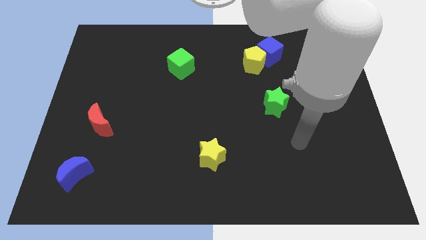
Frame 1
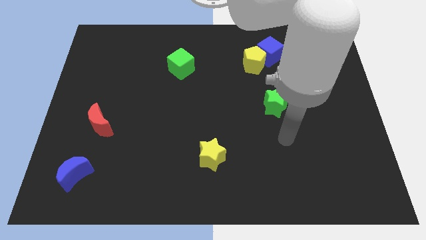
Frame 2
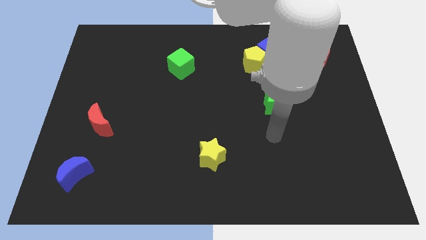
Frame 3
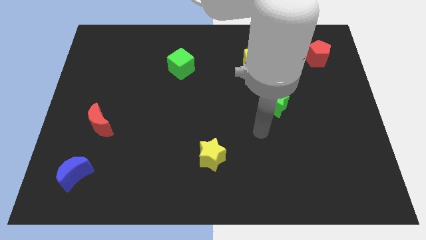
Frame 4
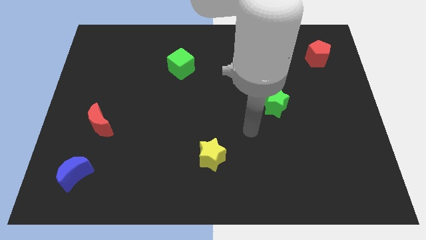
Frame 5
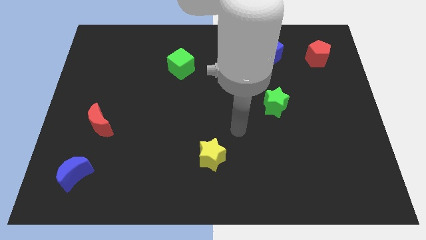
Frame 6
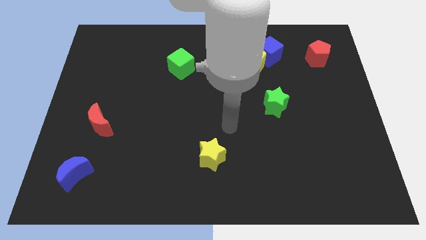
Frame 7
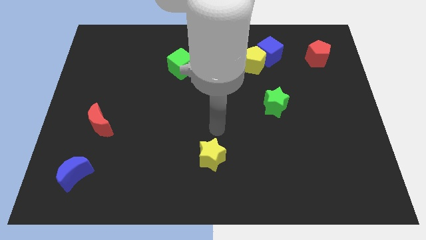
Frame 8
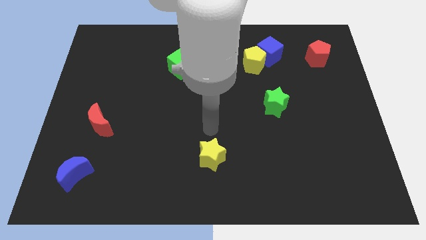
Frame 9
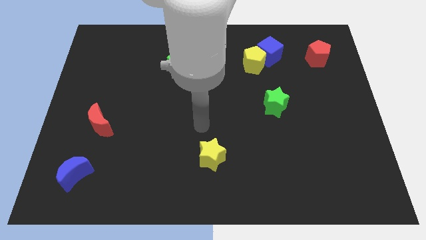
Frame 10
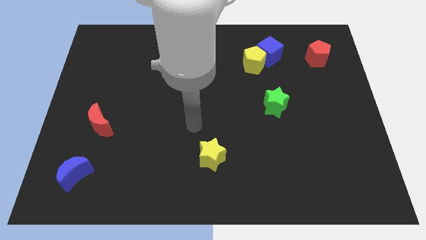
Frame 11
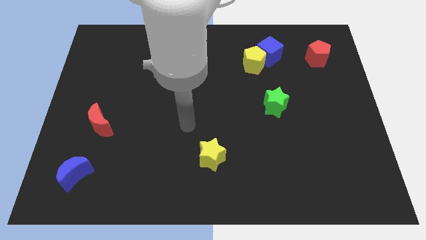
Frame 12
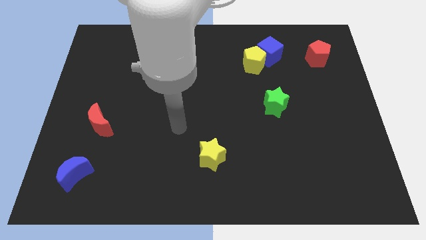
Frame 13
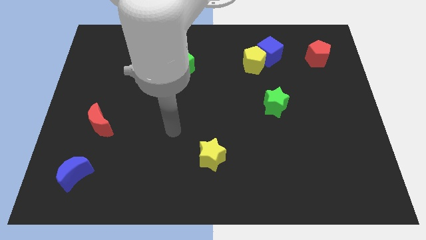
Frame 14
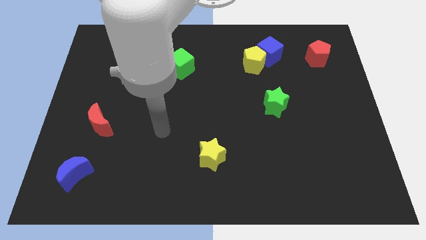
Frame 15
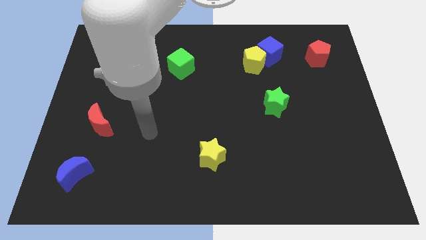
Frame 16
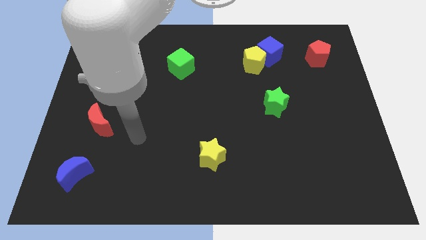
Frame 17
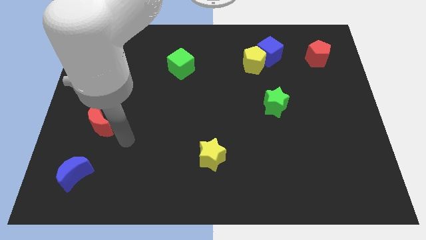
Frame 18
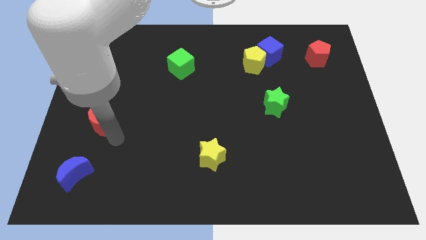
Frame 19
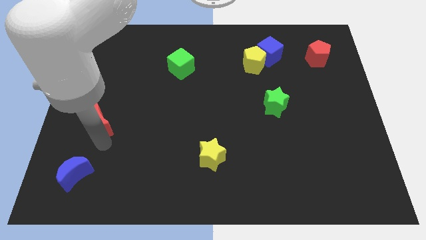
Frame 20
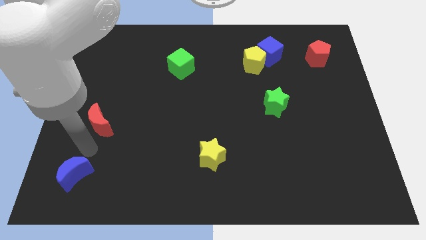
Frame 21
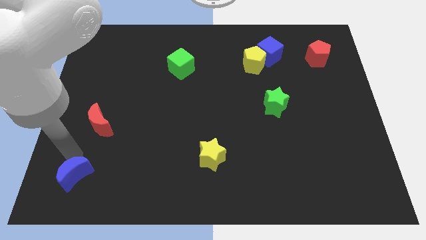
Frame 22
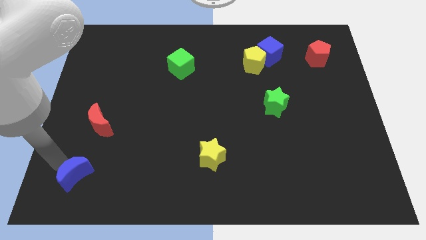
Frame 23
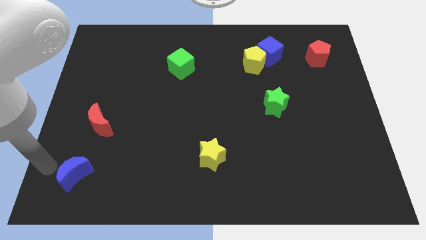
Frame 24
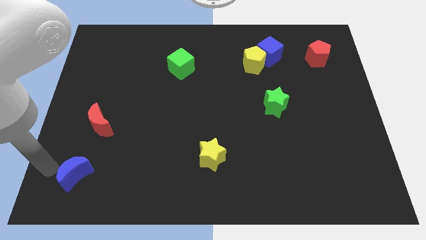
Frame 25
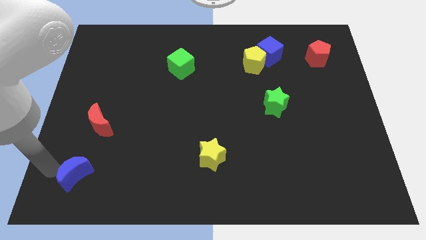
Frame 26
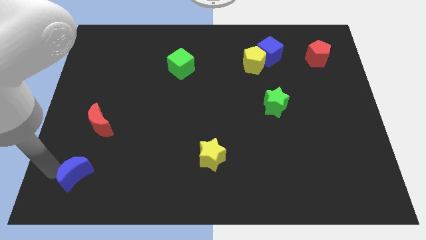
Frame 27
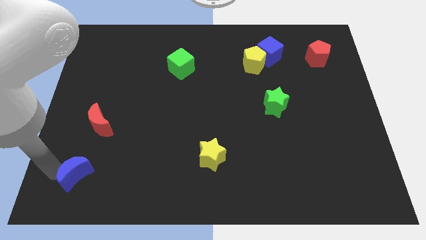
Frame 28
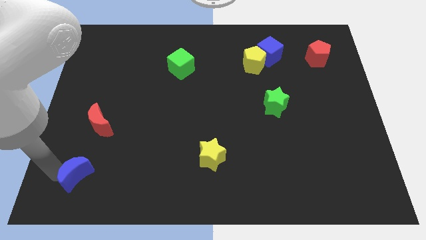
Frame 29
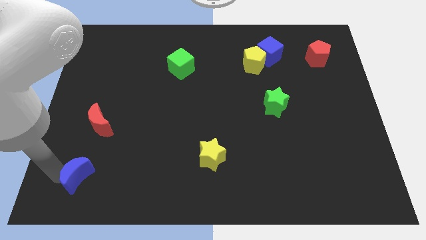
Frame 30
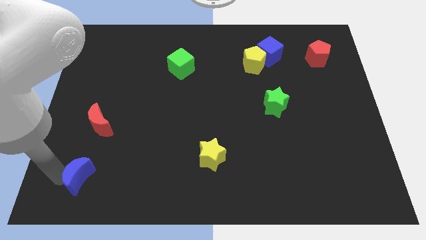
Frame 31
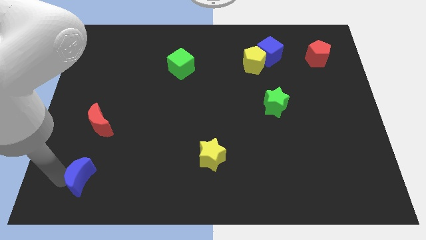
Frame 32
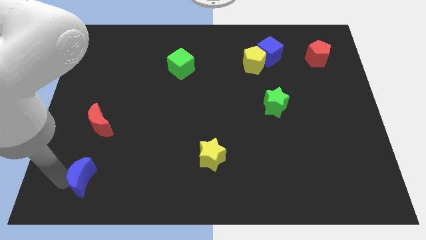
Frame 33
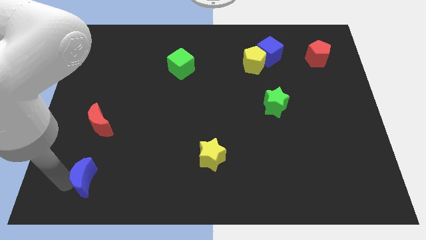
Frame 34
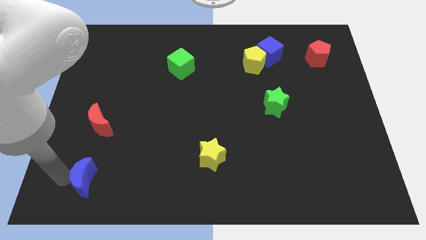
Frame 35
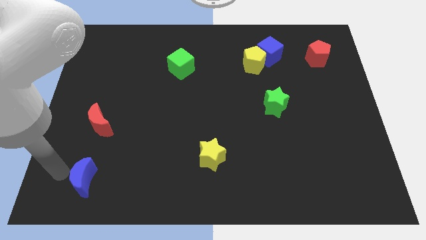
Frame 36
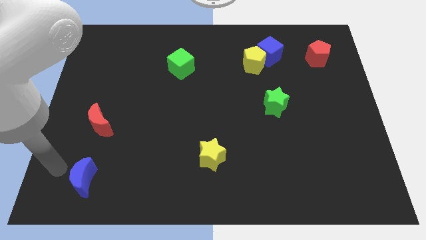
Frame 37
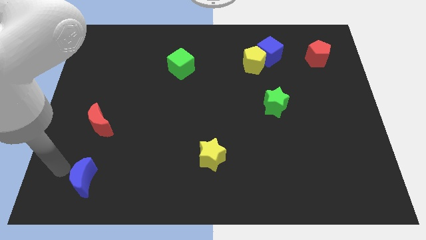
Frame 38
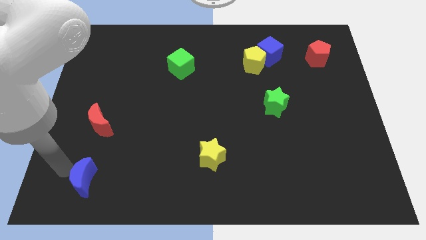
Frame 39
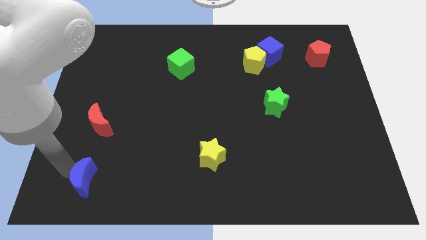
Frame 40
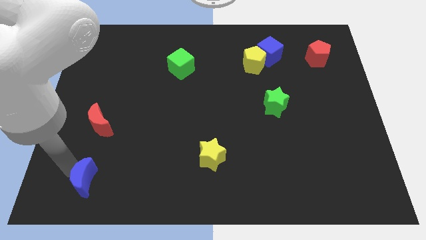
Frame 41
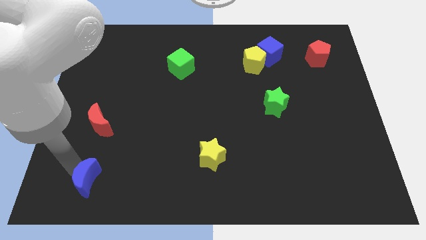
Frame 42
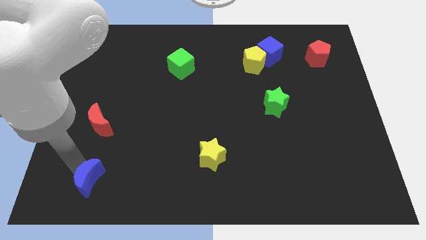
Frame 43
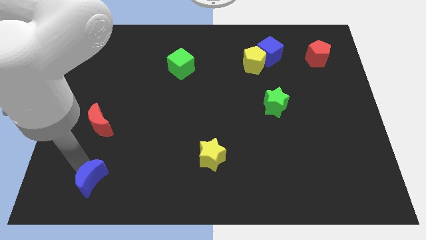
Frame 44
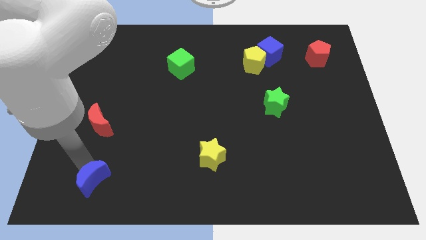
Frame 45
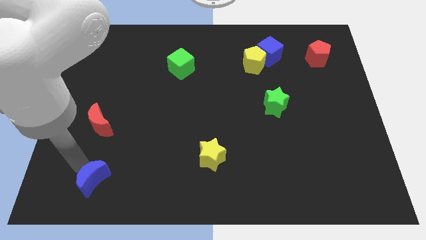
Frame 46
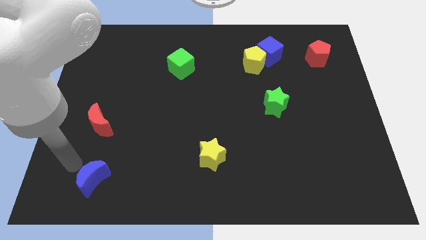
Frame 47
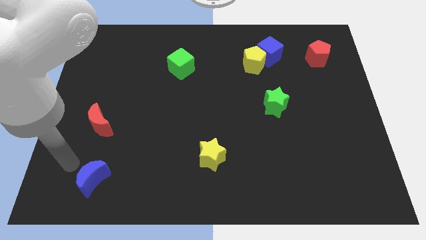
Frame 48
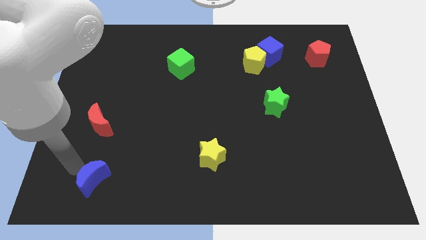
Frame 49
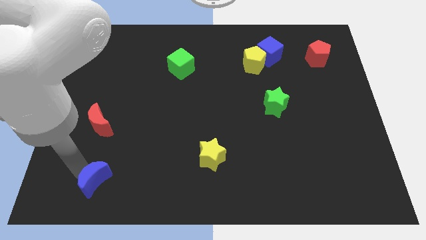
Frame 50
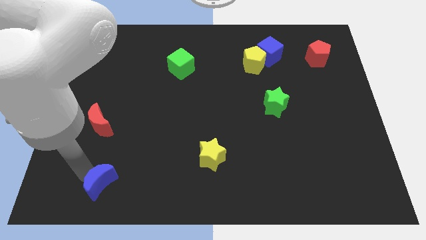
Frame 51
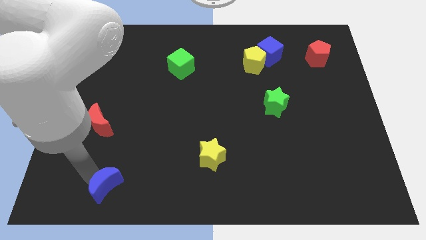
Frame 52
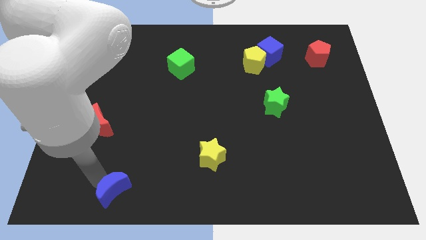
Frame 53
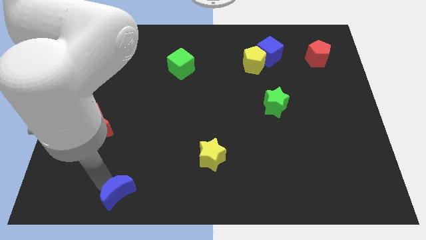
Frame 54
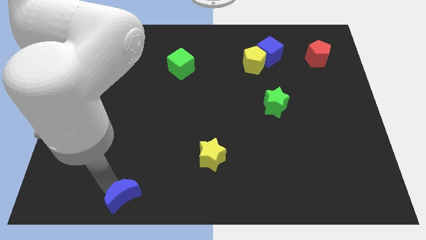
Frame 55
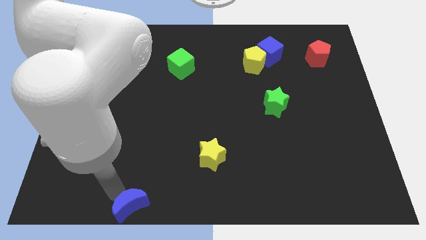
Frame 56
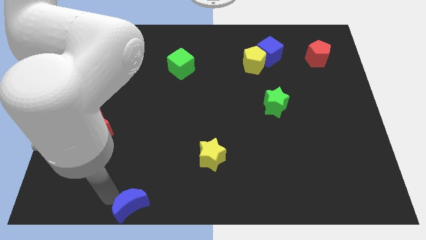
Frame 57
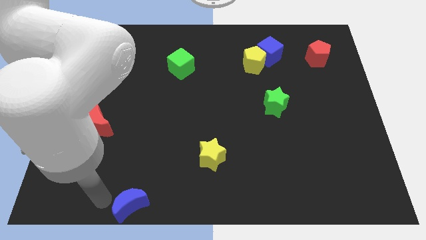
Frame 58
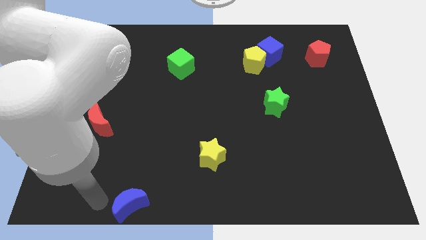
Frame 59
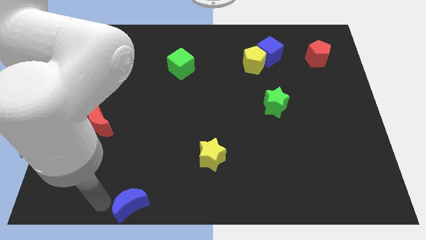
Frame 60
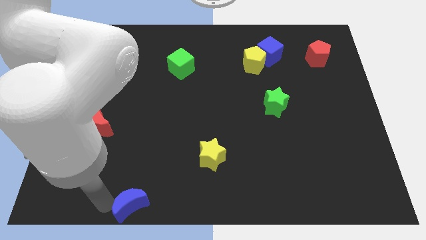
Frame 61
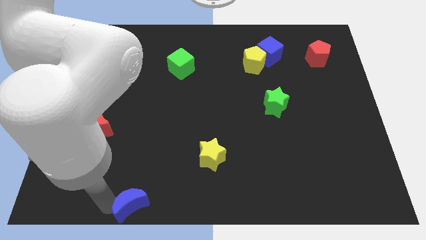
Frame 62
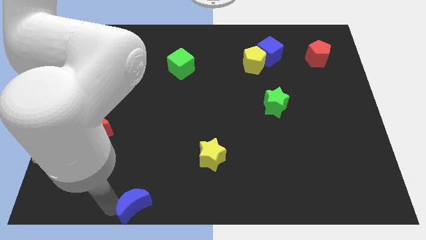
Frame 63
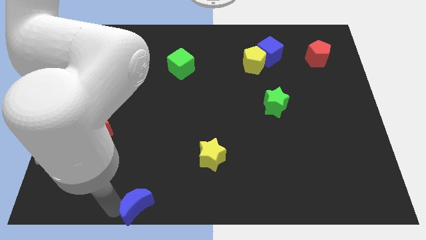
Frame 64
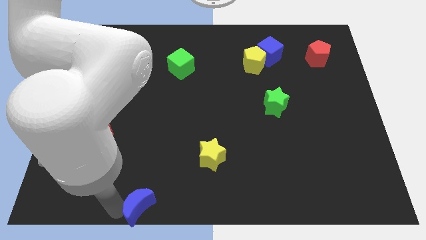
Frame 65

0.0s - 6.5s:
put the blue moon to the bottom

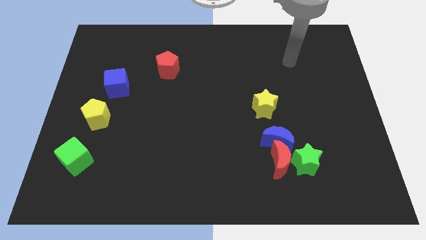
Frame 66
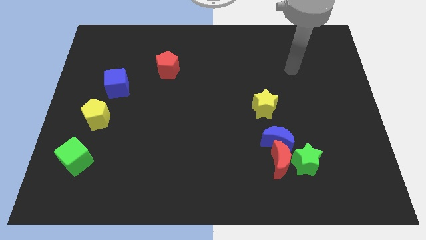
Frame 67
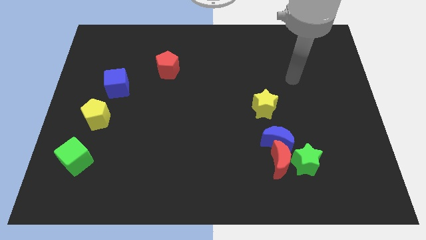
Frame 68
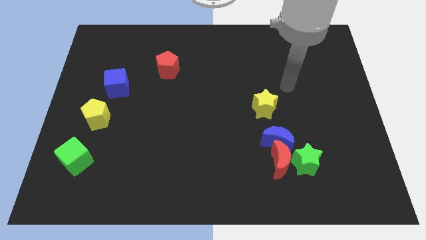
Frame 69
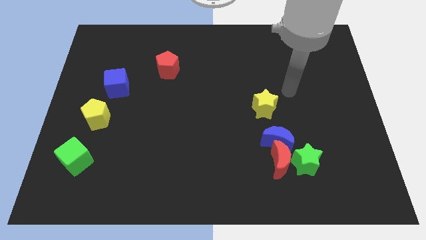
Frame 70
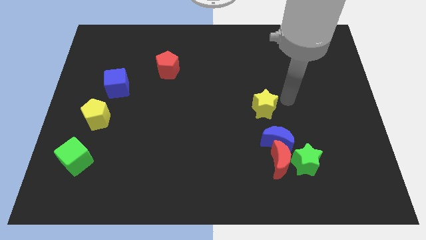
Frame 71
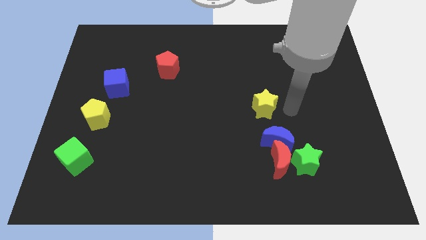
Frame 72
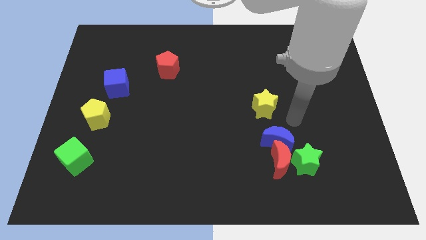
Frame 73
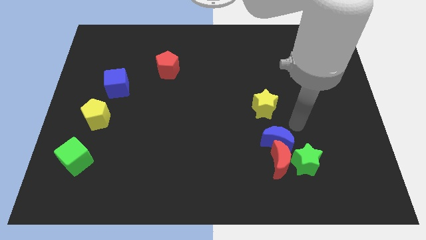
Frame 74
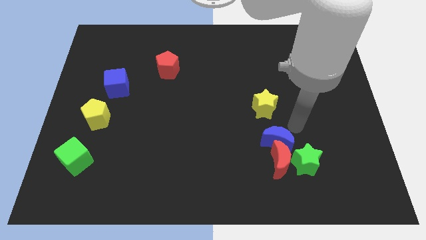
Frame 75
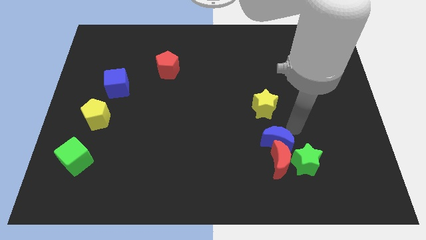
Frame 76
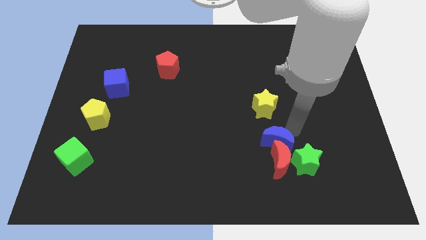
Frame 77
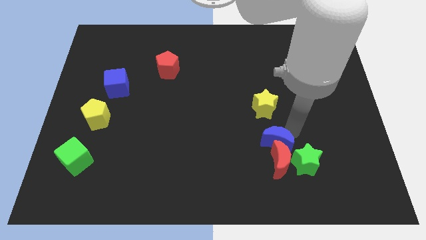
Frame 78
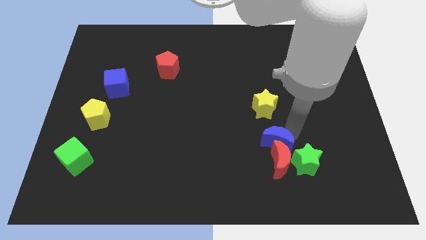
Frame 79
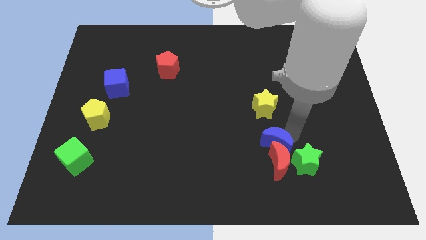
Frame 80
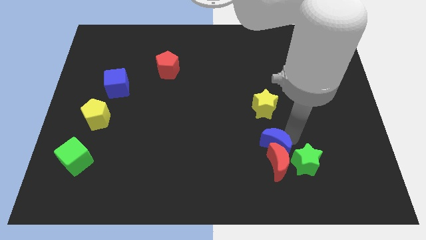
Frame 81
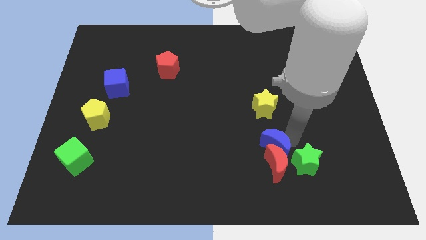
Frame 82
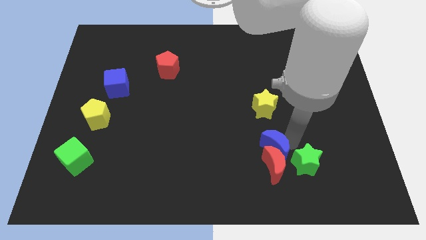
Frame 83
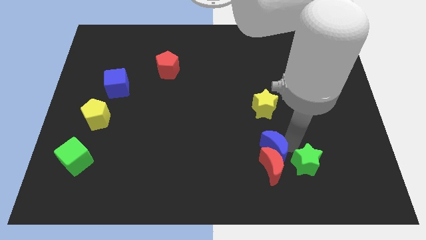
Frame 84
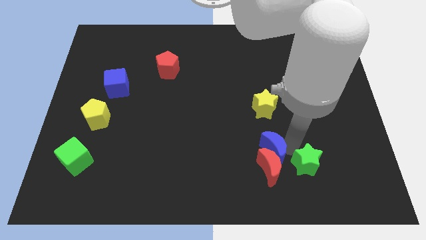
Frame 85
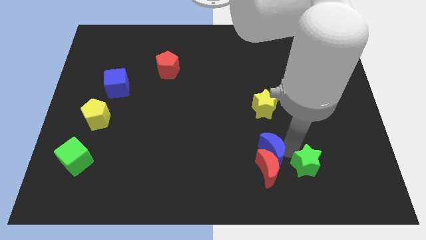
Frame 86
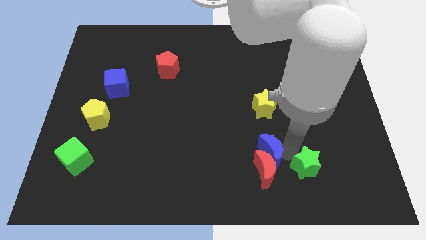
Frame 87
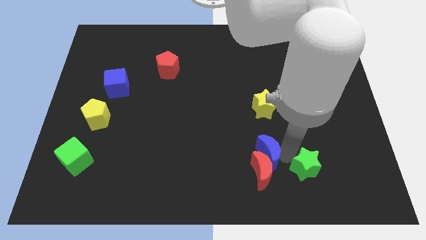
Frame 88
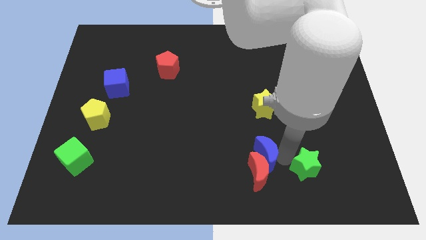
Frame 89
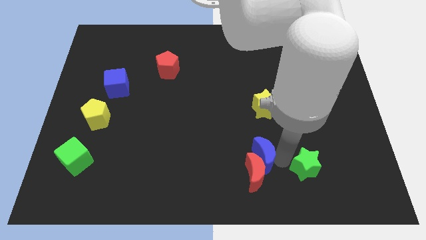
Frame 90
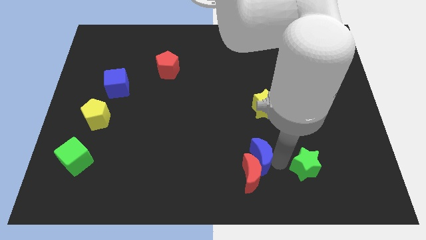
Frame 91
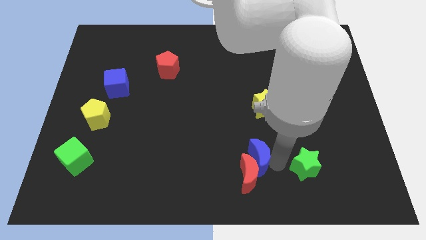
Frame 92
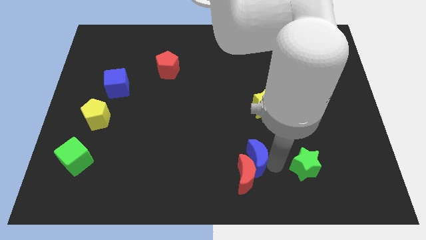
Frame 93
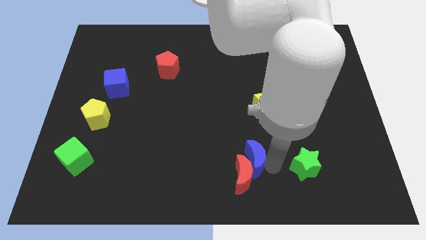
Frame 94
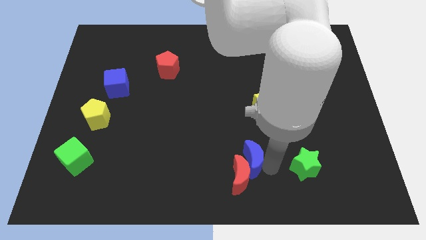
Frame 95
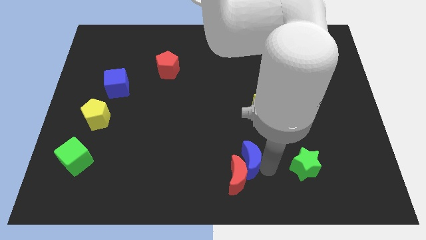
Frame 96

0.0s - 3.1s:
push the blue moon to the bottom
